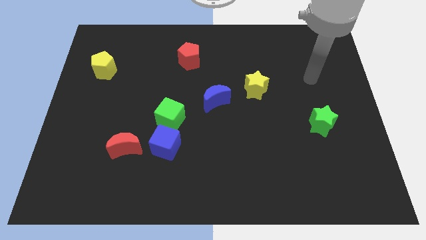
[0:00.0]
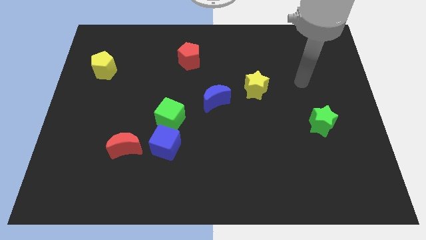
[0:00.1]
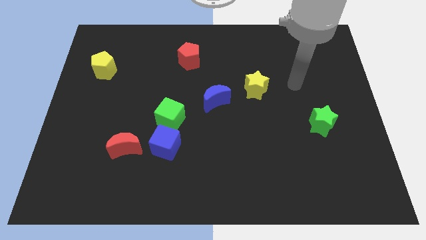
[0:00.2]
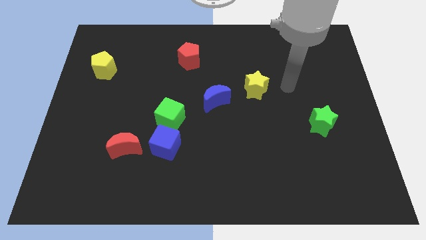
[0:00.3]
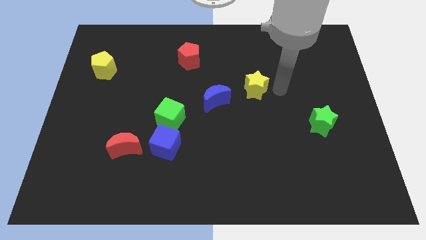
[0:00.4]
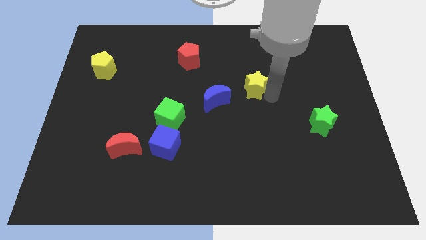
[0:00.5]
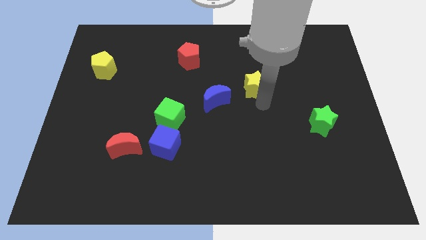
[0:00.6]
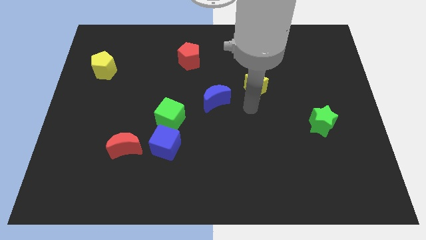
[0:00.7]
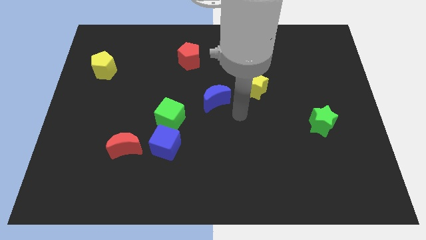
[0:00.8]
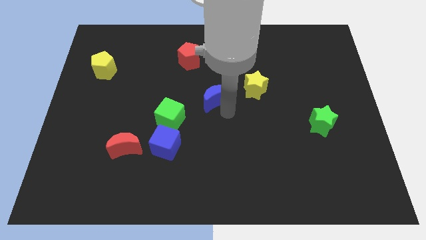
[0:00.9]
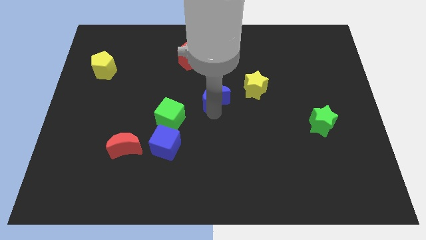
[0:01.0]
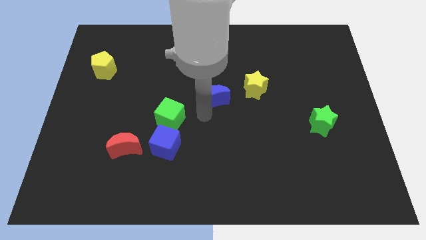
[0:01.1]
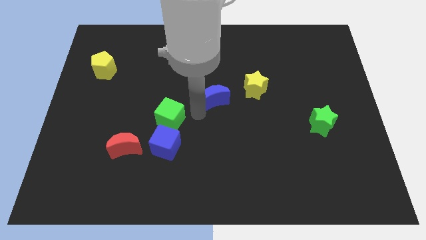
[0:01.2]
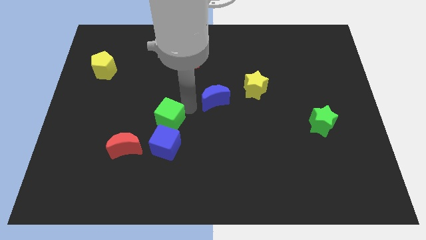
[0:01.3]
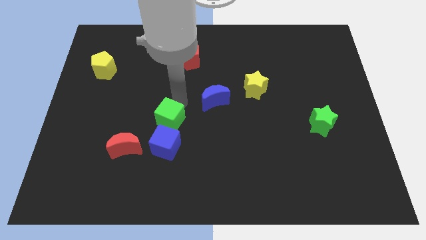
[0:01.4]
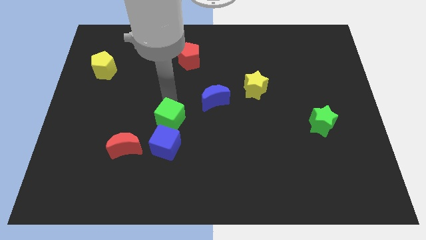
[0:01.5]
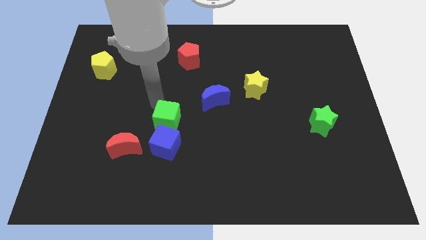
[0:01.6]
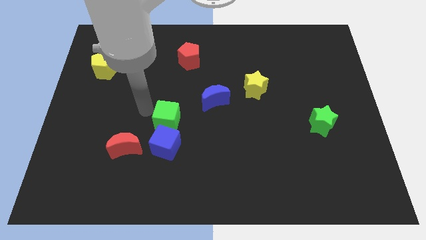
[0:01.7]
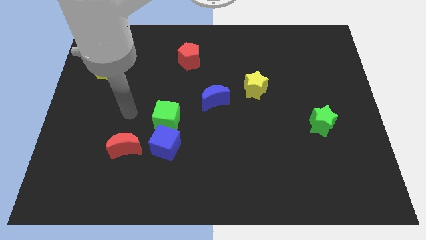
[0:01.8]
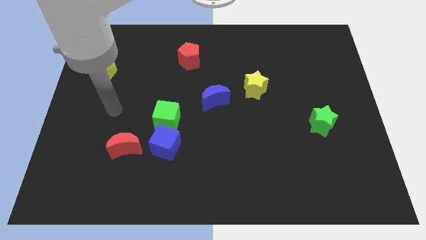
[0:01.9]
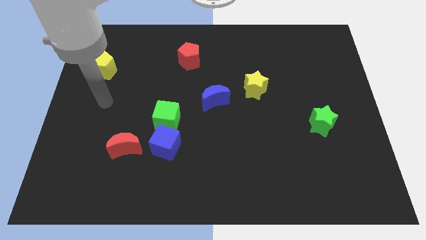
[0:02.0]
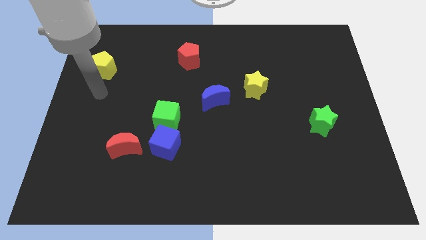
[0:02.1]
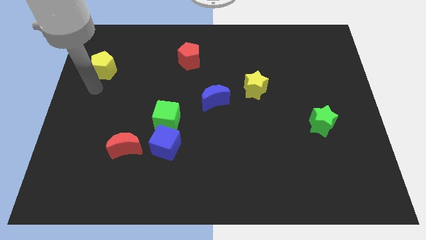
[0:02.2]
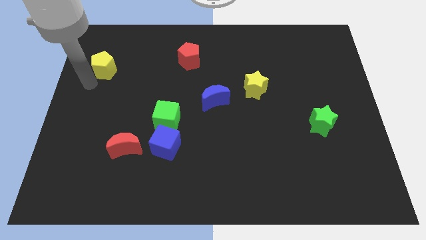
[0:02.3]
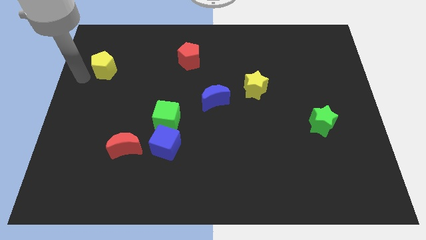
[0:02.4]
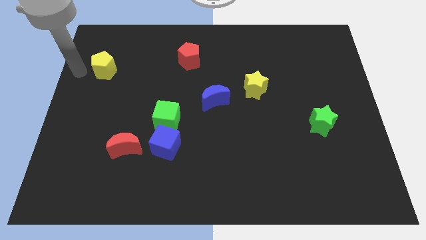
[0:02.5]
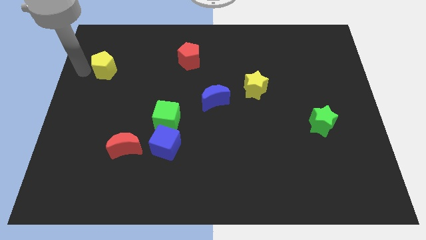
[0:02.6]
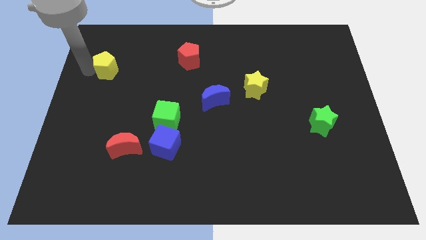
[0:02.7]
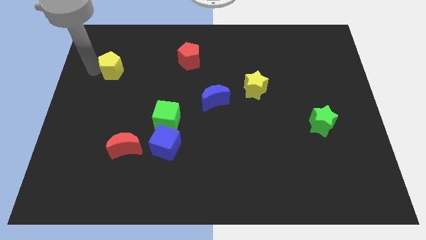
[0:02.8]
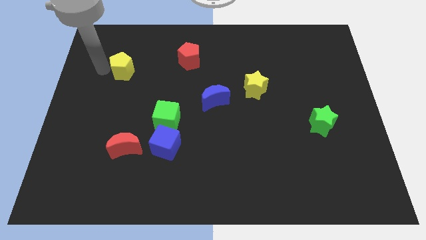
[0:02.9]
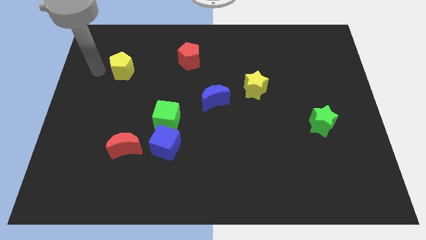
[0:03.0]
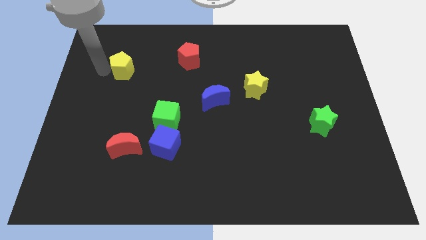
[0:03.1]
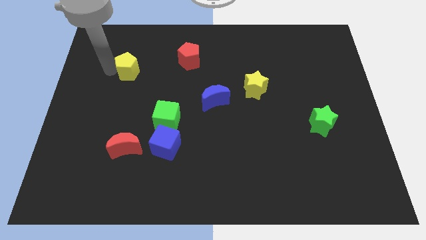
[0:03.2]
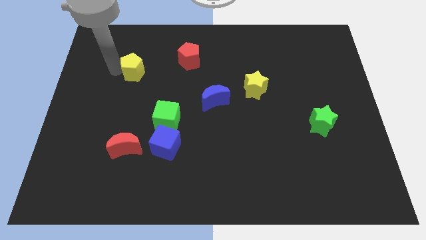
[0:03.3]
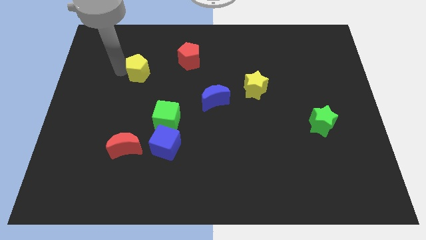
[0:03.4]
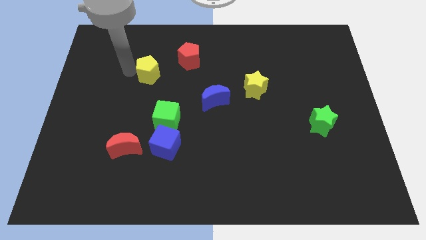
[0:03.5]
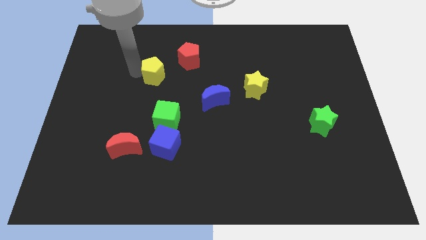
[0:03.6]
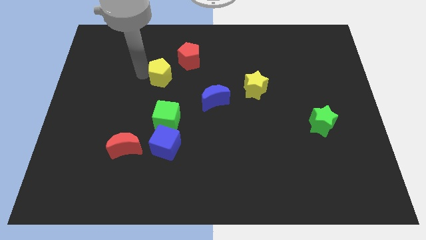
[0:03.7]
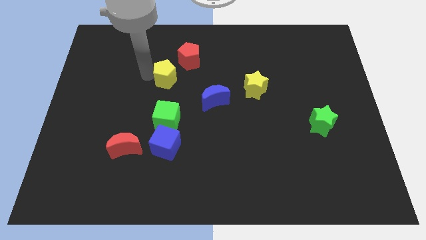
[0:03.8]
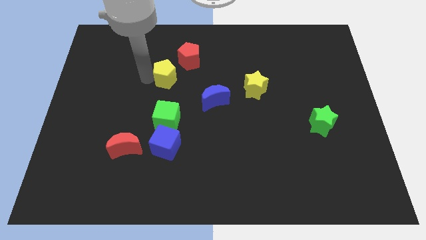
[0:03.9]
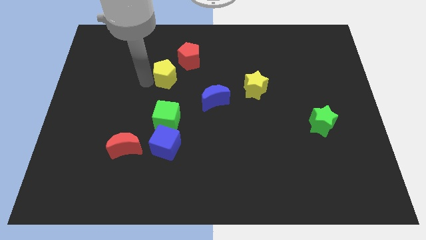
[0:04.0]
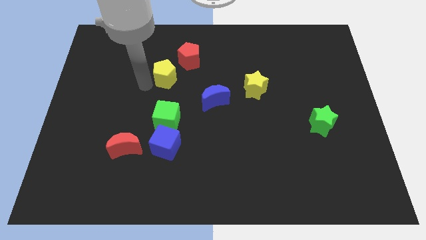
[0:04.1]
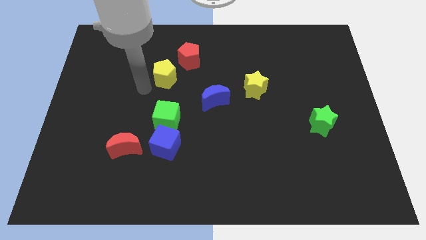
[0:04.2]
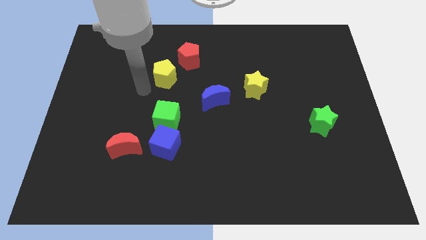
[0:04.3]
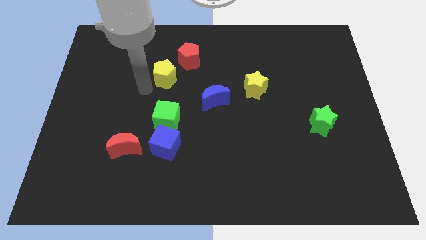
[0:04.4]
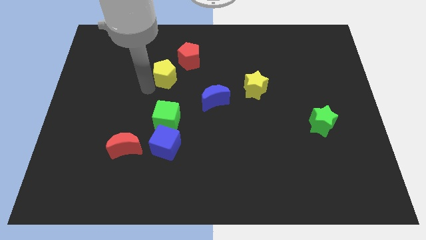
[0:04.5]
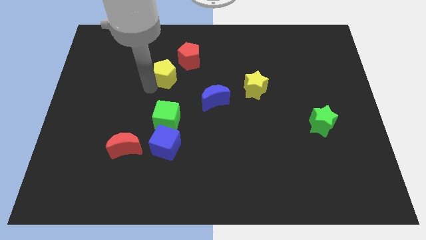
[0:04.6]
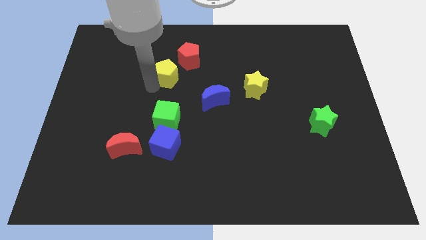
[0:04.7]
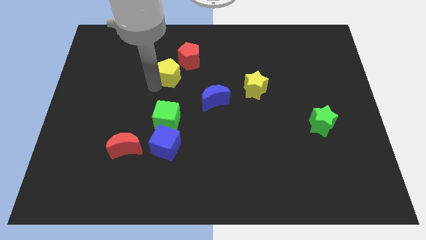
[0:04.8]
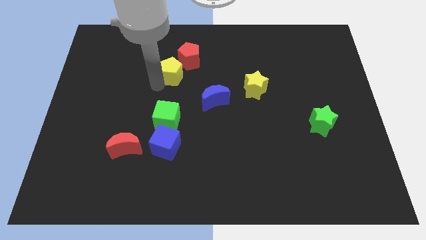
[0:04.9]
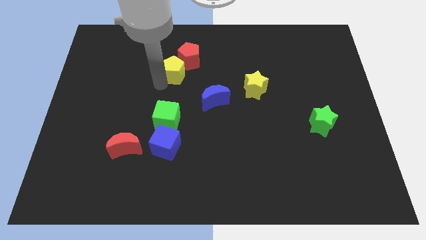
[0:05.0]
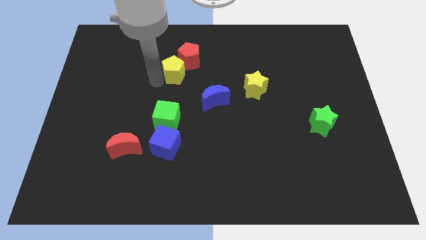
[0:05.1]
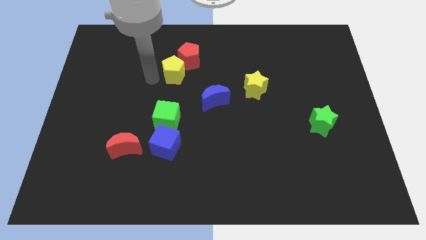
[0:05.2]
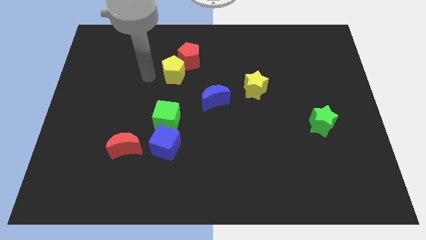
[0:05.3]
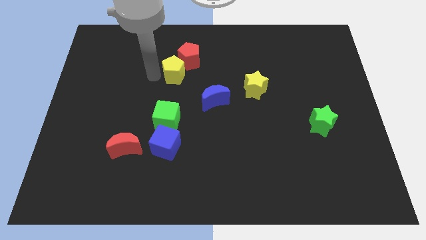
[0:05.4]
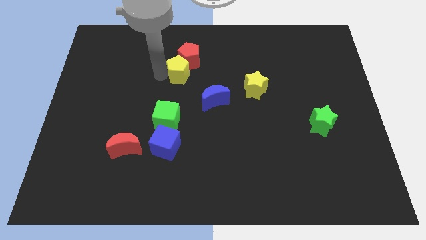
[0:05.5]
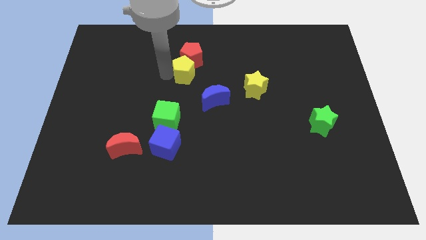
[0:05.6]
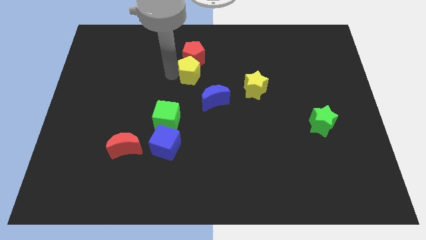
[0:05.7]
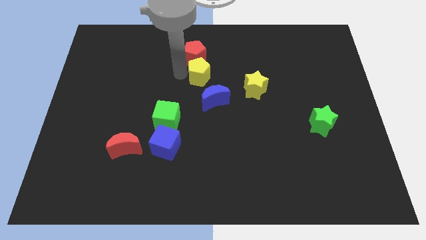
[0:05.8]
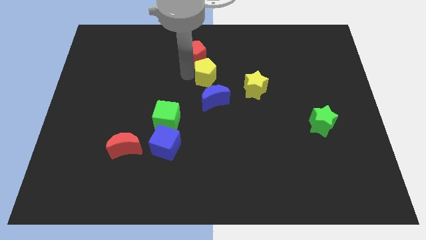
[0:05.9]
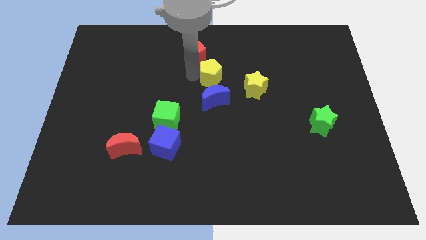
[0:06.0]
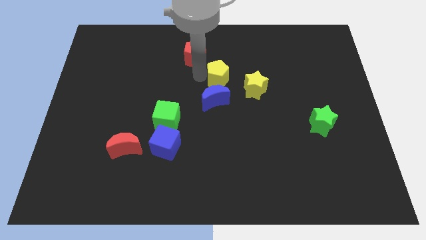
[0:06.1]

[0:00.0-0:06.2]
put the yellow pentagon diagonally up and to the left of the yellow star
